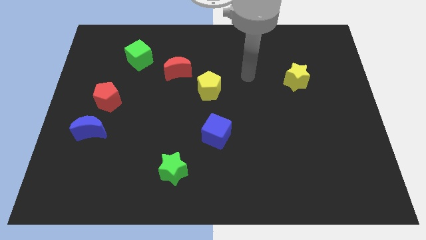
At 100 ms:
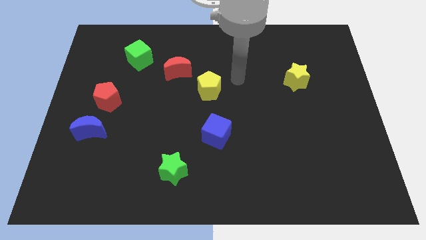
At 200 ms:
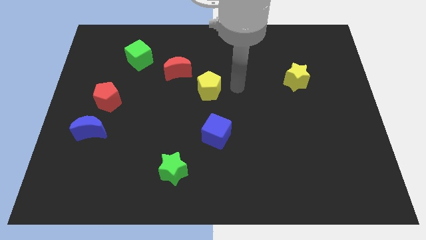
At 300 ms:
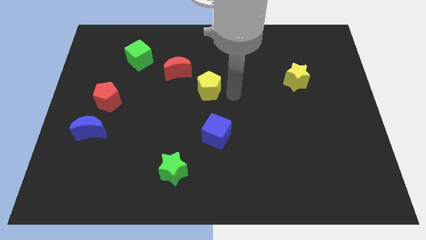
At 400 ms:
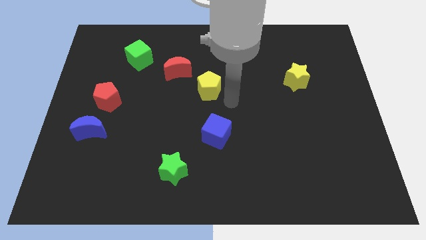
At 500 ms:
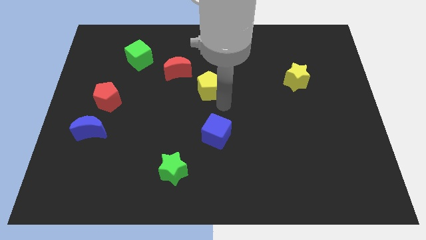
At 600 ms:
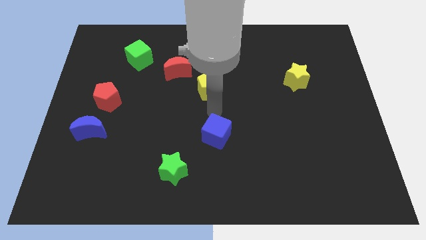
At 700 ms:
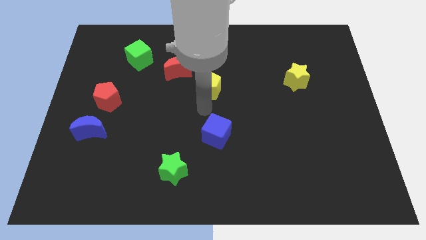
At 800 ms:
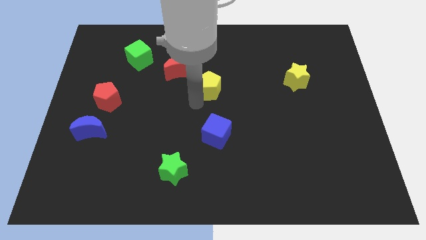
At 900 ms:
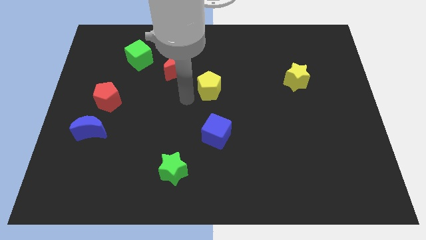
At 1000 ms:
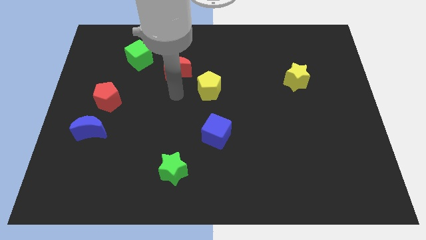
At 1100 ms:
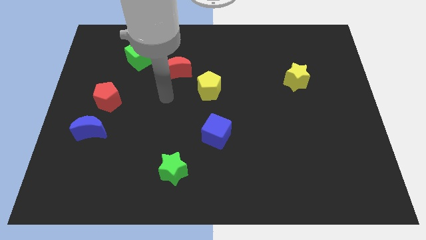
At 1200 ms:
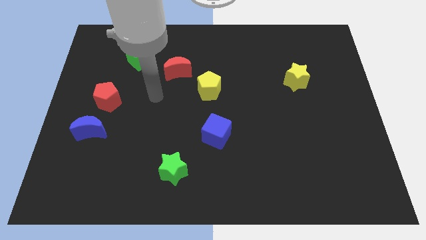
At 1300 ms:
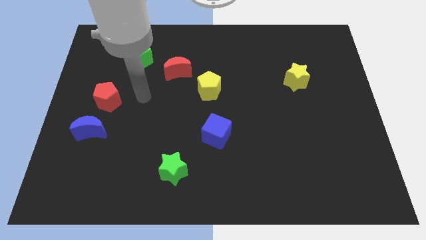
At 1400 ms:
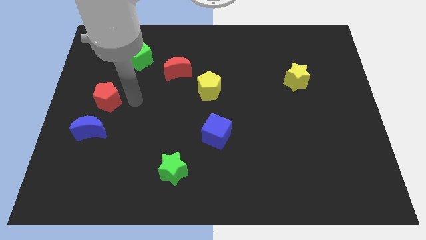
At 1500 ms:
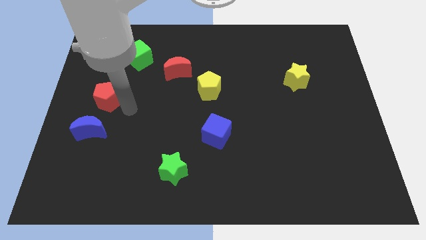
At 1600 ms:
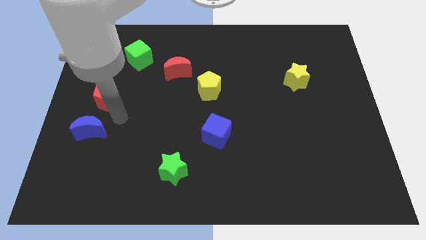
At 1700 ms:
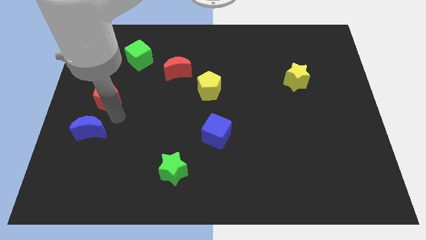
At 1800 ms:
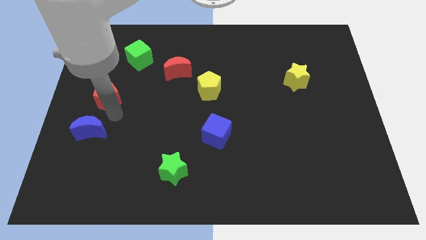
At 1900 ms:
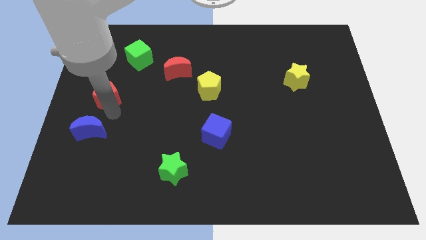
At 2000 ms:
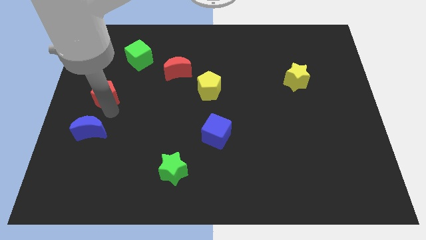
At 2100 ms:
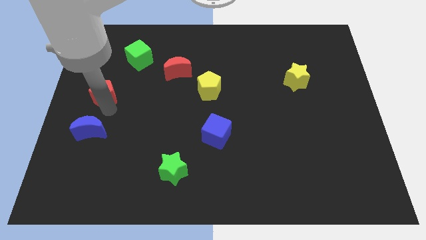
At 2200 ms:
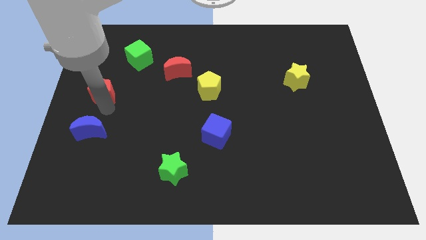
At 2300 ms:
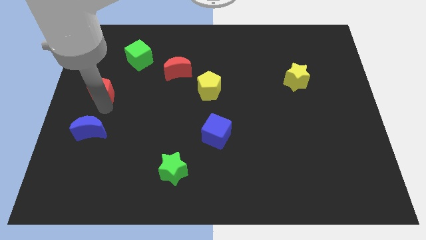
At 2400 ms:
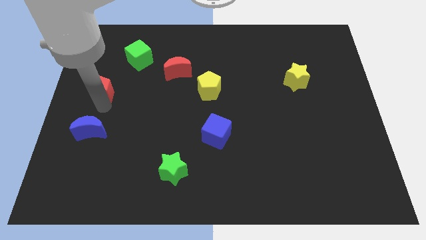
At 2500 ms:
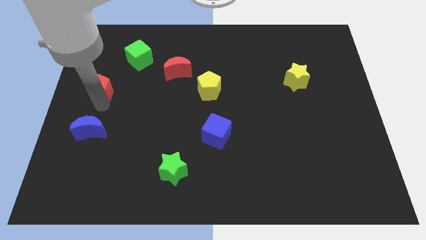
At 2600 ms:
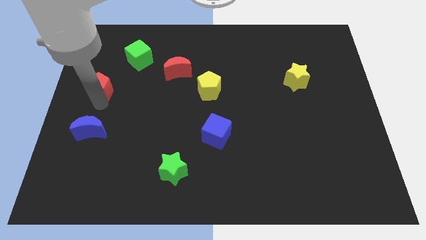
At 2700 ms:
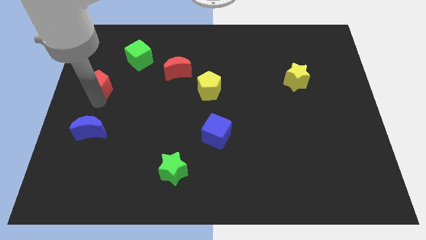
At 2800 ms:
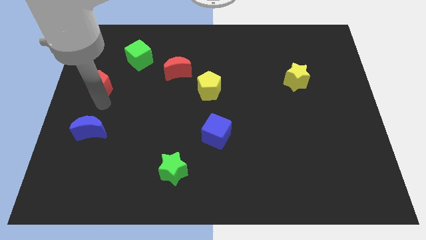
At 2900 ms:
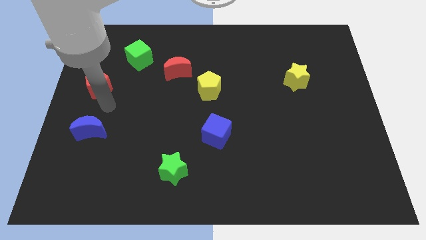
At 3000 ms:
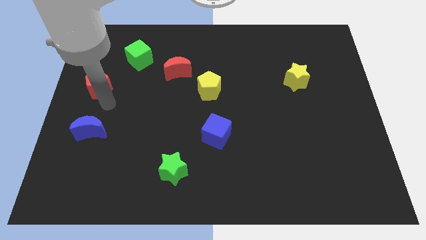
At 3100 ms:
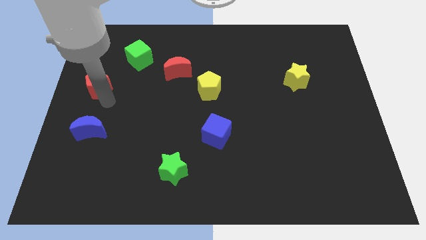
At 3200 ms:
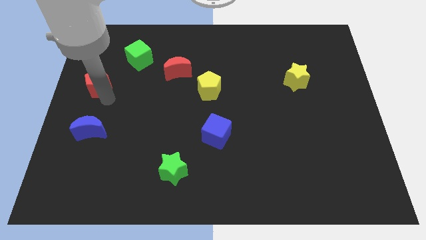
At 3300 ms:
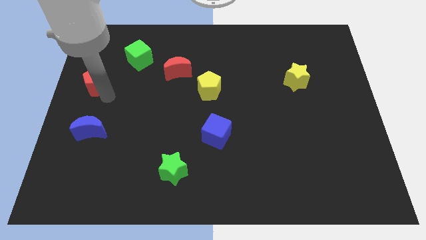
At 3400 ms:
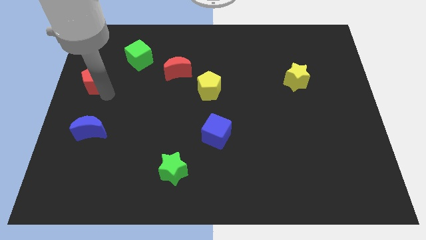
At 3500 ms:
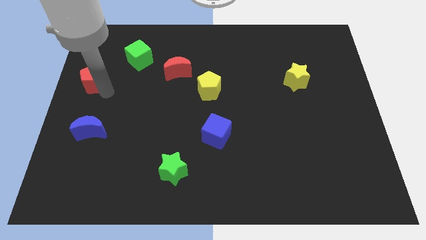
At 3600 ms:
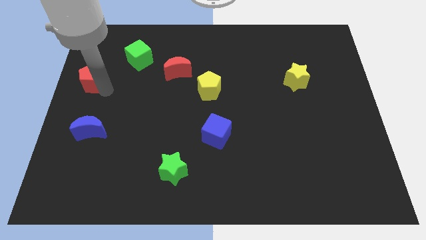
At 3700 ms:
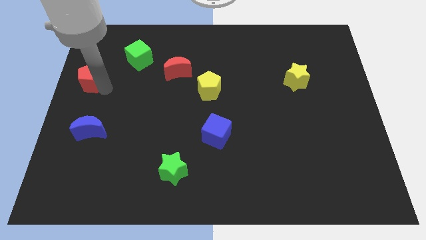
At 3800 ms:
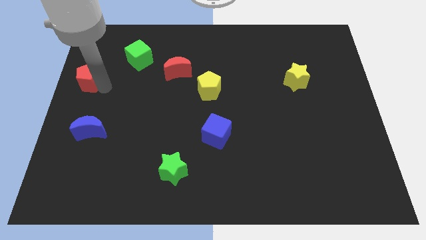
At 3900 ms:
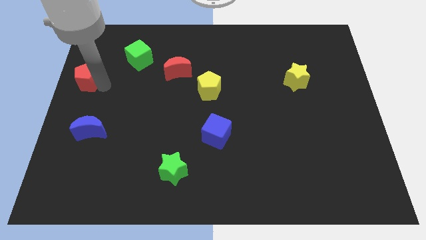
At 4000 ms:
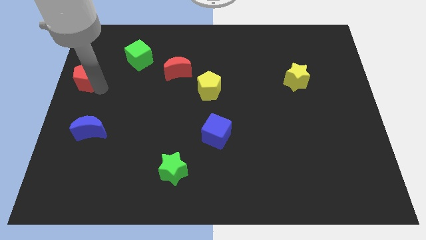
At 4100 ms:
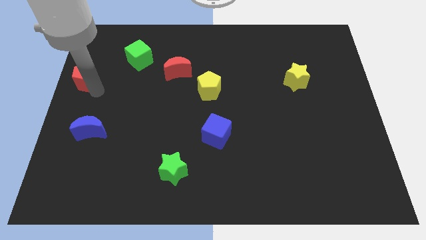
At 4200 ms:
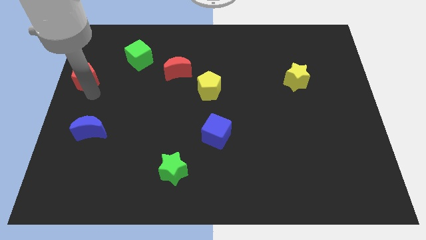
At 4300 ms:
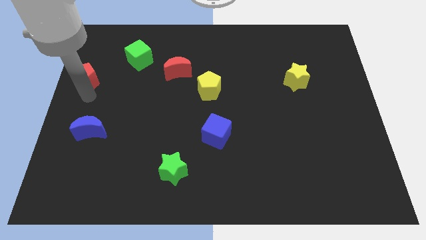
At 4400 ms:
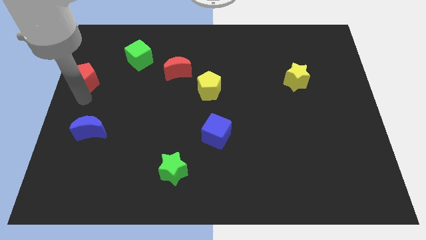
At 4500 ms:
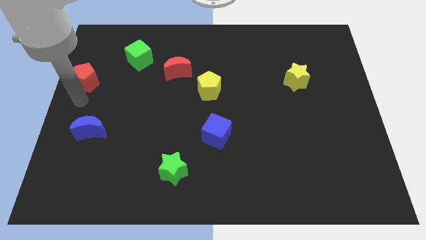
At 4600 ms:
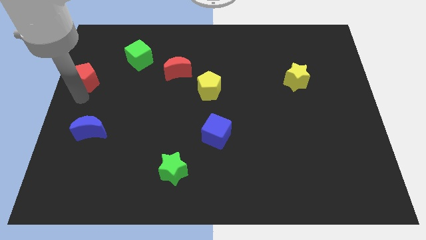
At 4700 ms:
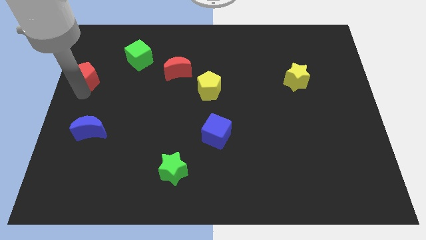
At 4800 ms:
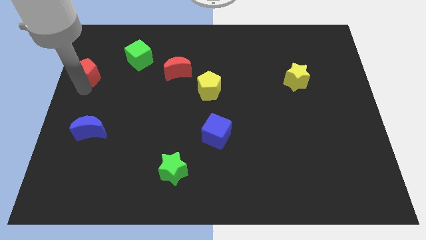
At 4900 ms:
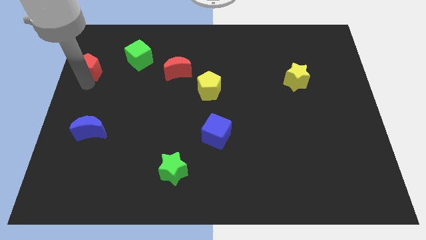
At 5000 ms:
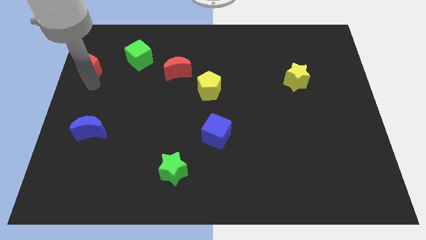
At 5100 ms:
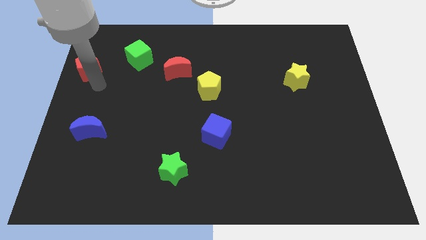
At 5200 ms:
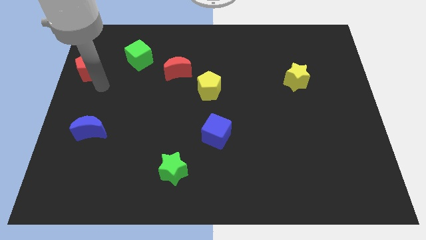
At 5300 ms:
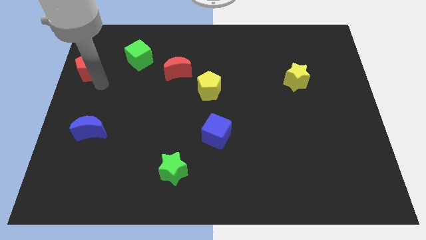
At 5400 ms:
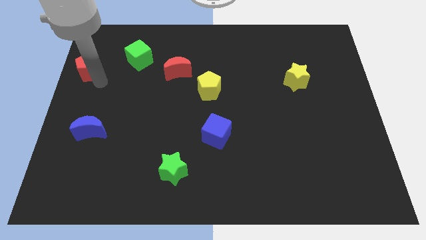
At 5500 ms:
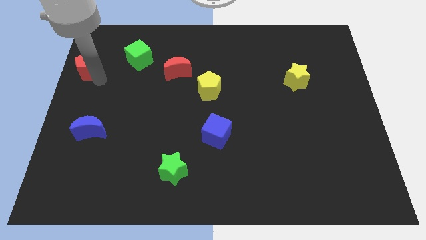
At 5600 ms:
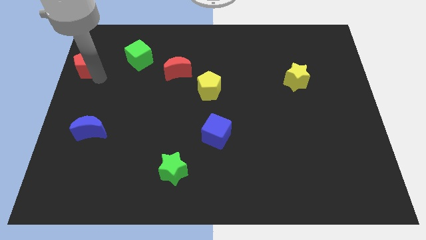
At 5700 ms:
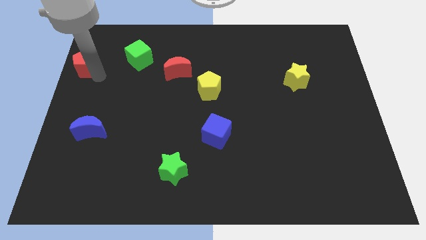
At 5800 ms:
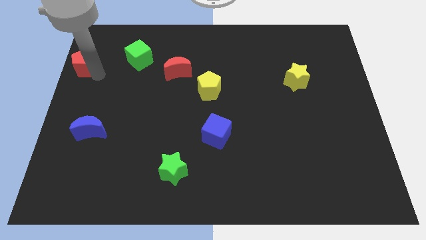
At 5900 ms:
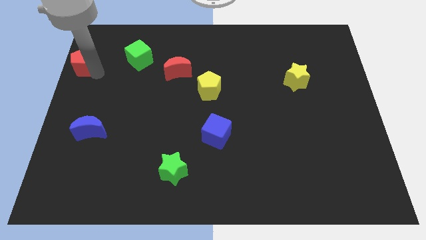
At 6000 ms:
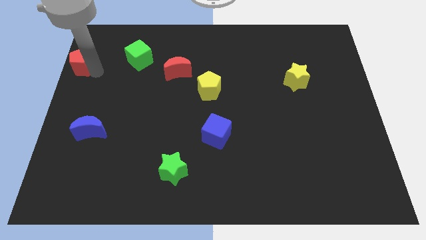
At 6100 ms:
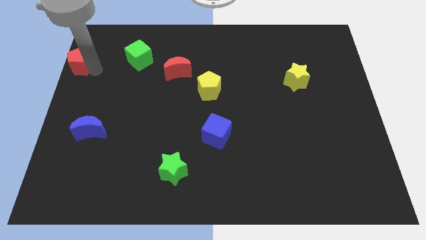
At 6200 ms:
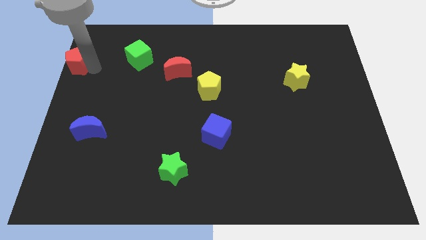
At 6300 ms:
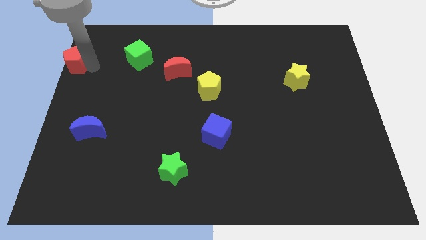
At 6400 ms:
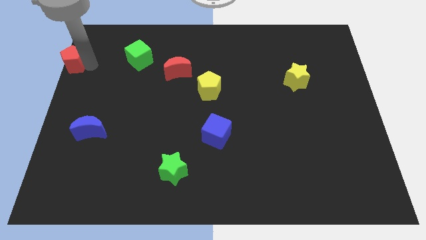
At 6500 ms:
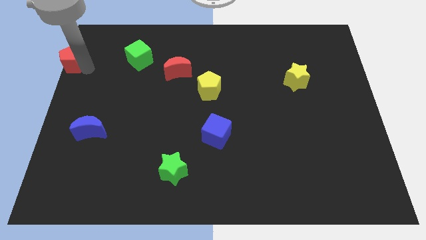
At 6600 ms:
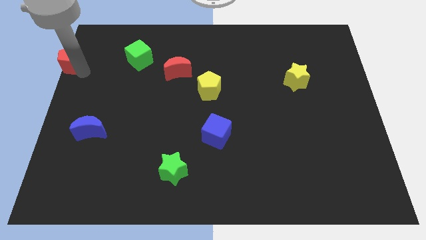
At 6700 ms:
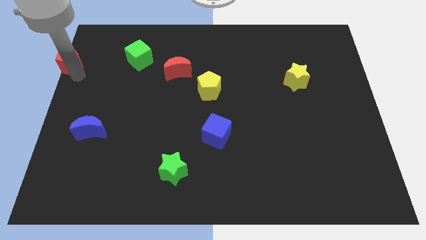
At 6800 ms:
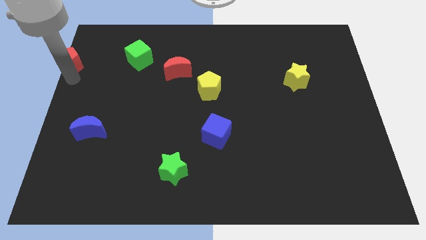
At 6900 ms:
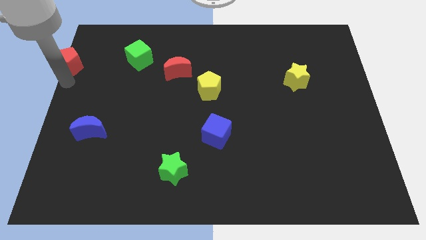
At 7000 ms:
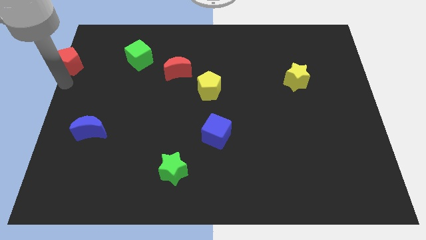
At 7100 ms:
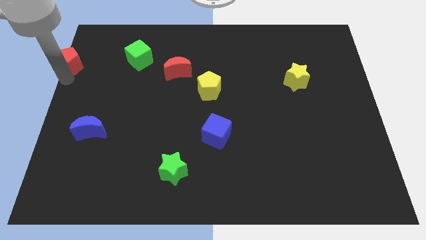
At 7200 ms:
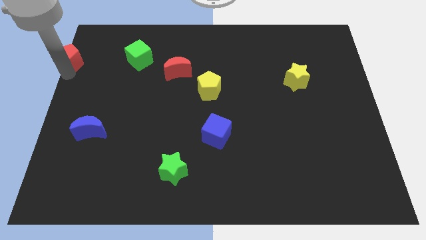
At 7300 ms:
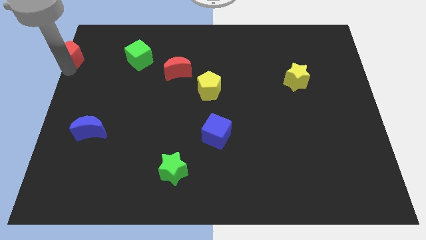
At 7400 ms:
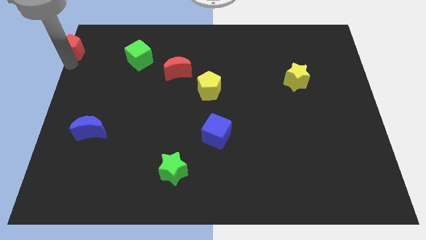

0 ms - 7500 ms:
move the red pentagon to the top left of the board
